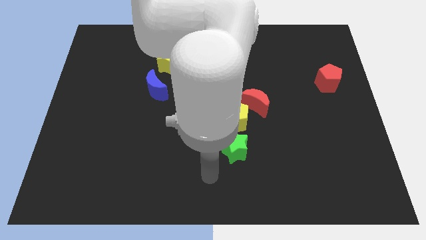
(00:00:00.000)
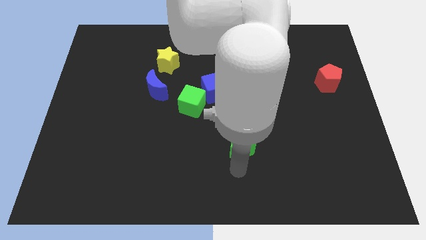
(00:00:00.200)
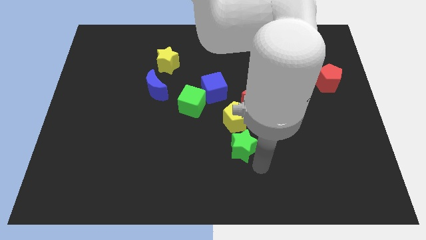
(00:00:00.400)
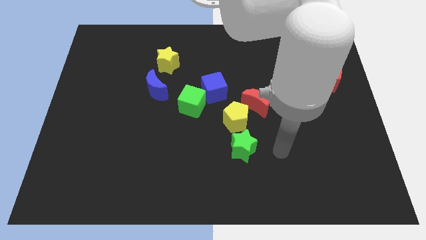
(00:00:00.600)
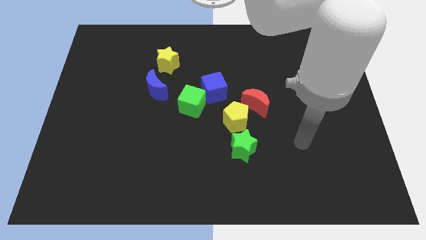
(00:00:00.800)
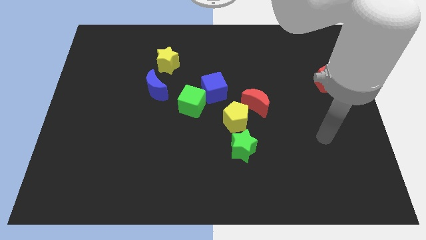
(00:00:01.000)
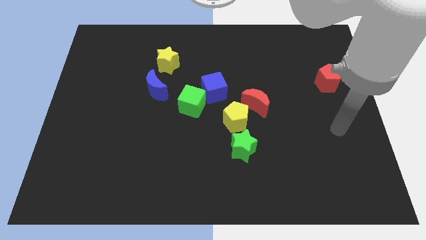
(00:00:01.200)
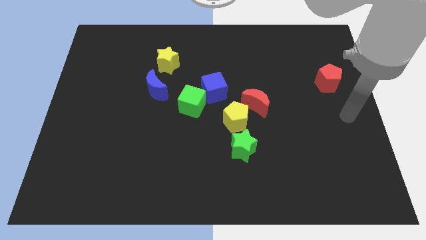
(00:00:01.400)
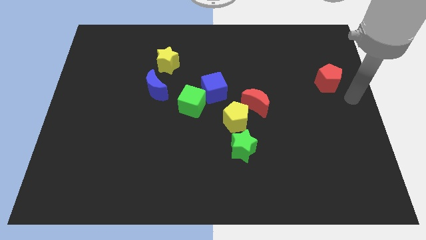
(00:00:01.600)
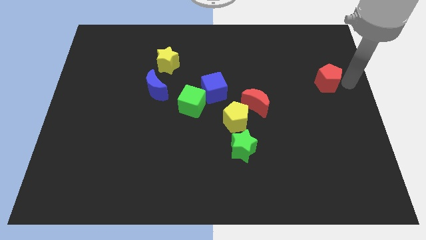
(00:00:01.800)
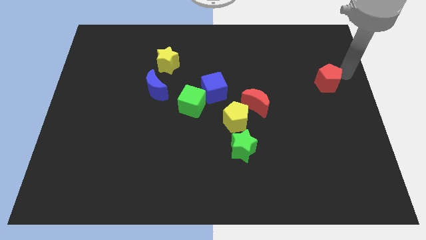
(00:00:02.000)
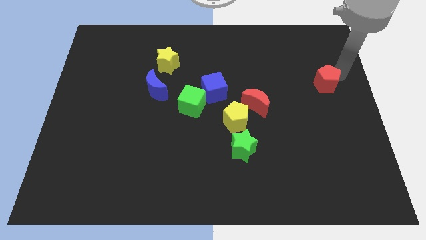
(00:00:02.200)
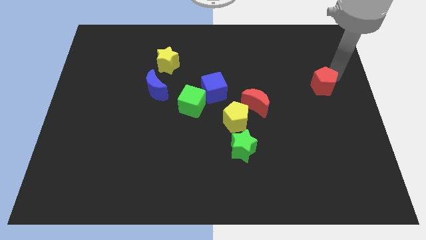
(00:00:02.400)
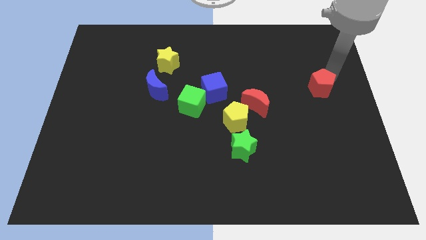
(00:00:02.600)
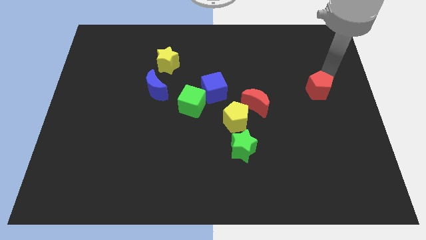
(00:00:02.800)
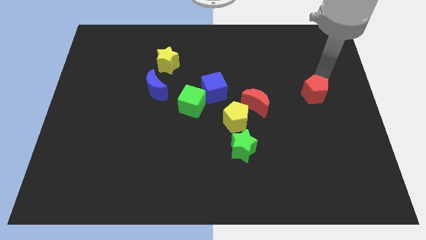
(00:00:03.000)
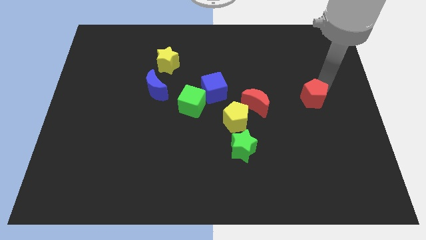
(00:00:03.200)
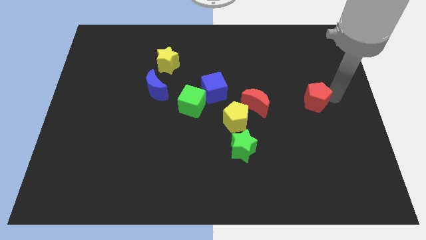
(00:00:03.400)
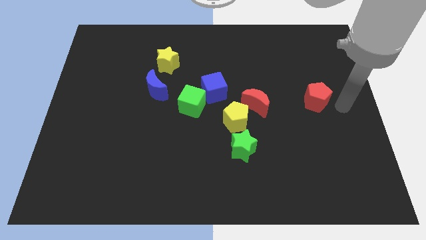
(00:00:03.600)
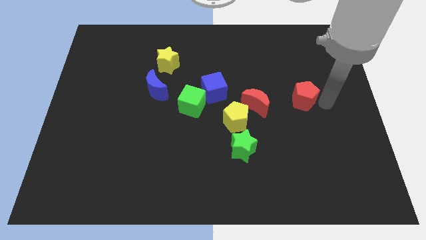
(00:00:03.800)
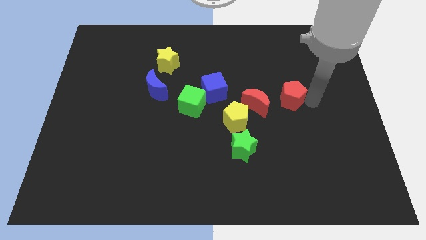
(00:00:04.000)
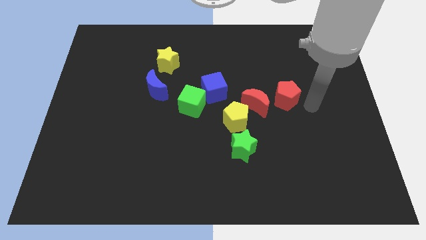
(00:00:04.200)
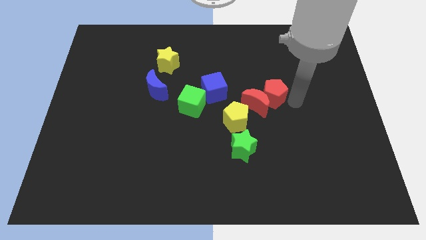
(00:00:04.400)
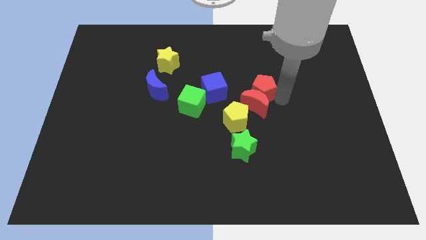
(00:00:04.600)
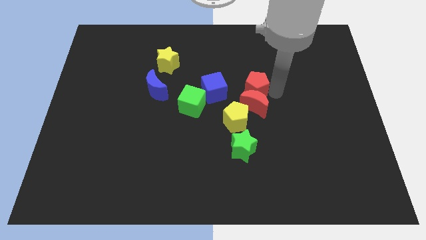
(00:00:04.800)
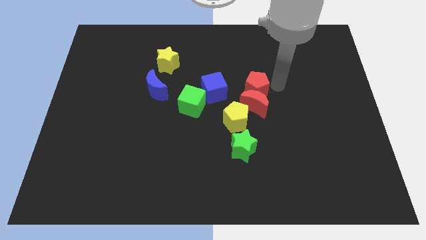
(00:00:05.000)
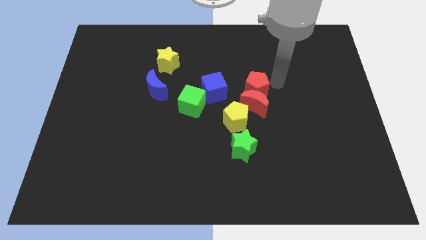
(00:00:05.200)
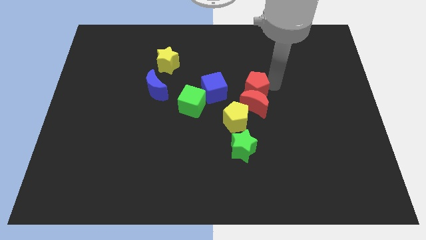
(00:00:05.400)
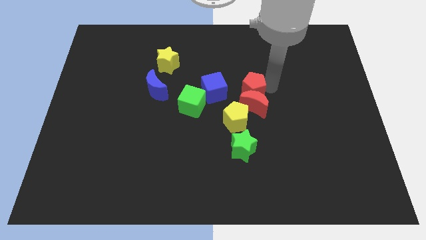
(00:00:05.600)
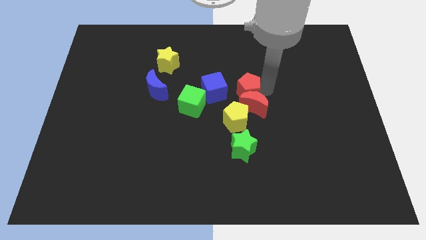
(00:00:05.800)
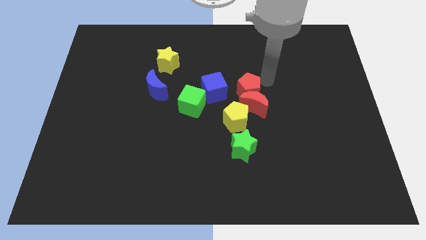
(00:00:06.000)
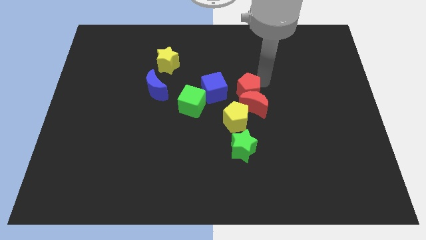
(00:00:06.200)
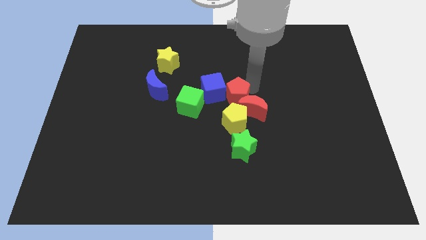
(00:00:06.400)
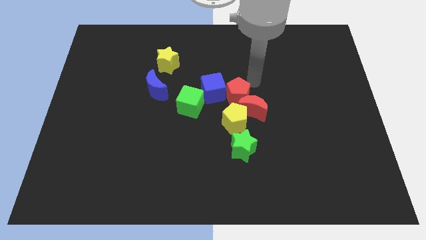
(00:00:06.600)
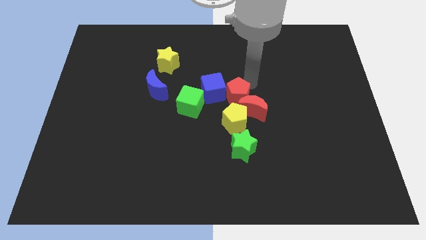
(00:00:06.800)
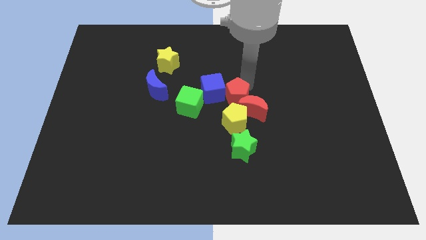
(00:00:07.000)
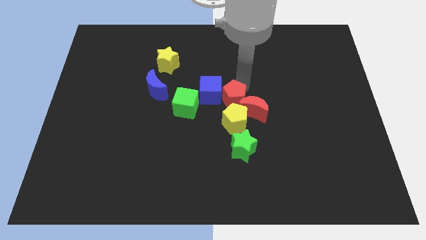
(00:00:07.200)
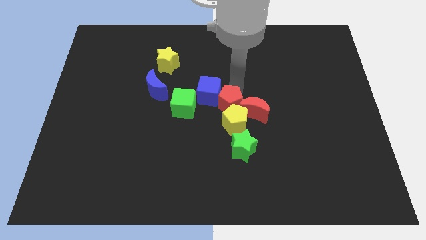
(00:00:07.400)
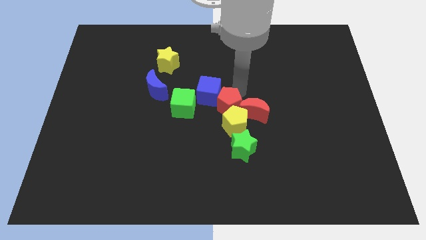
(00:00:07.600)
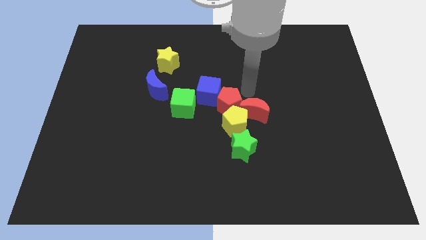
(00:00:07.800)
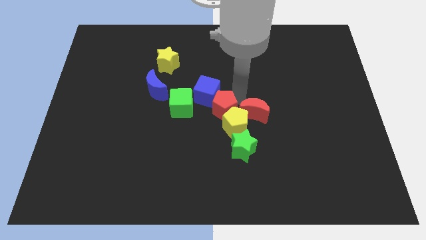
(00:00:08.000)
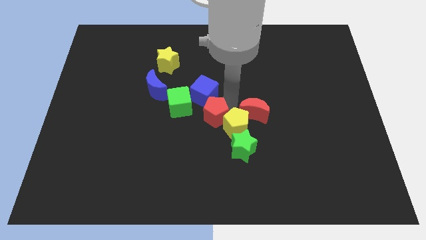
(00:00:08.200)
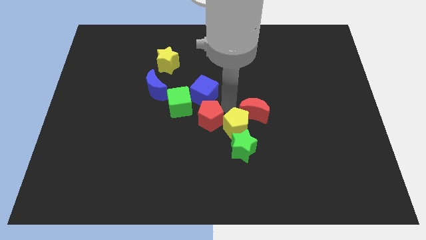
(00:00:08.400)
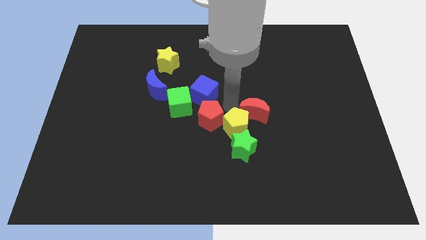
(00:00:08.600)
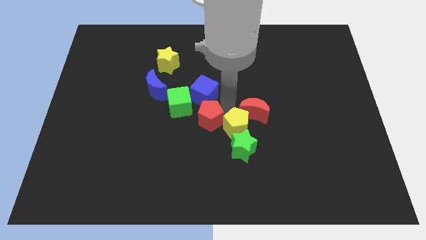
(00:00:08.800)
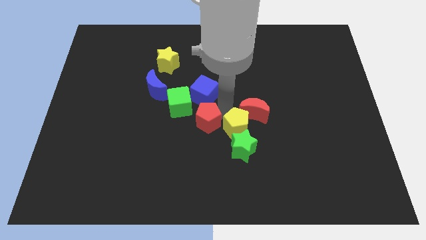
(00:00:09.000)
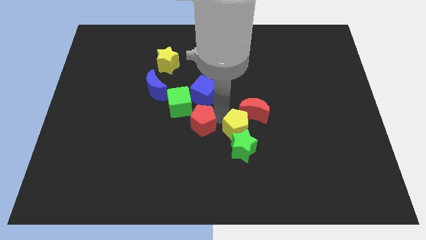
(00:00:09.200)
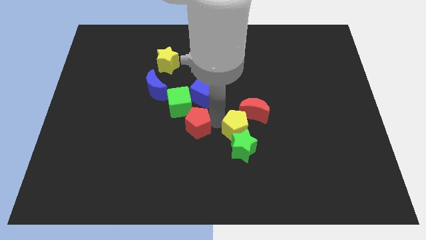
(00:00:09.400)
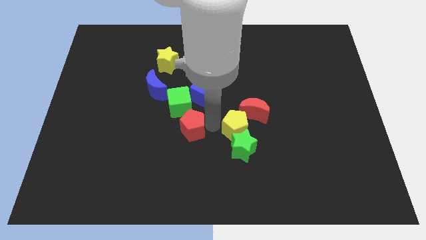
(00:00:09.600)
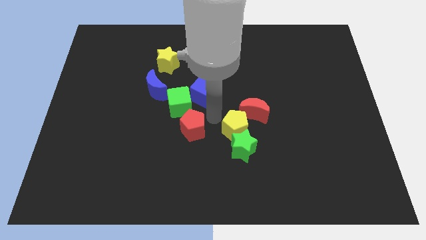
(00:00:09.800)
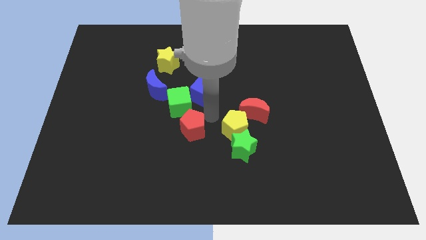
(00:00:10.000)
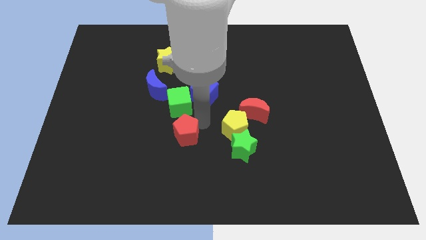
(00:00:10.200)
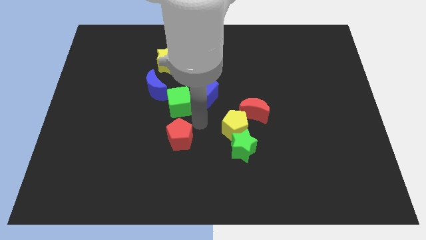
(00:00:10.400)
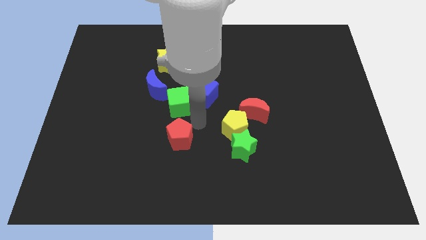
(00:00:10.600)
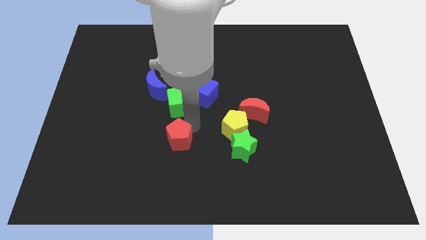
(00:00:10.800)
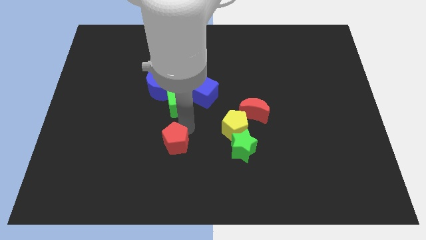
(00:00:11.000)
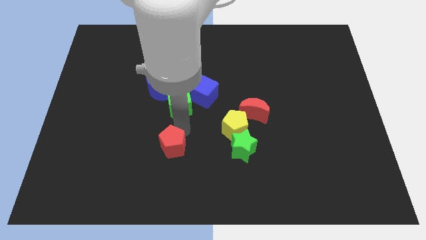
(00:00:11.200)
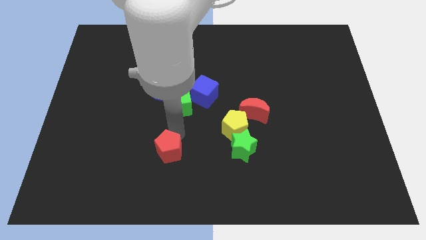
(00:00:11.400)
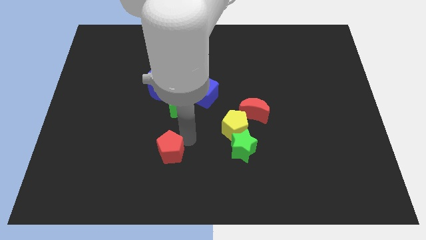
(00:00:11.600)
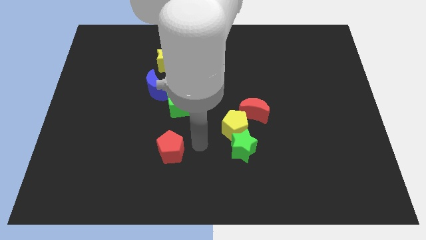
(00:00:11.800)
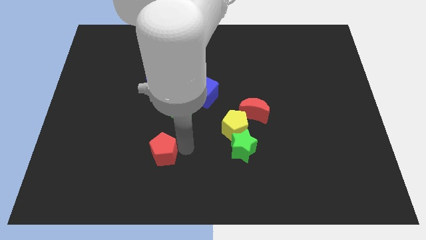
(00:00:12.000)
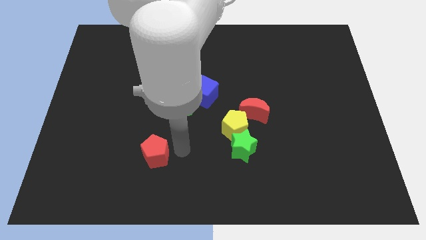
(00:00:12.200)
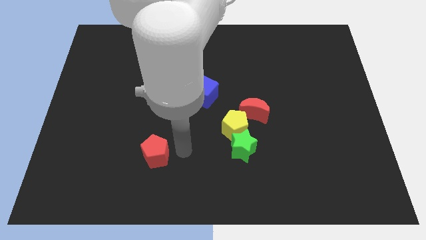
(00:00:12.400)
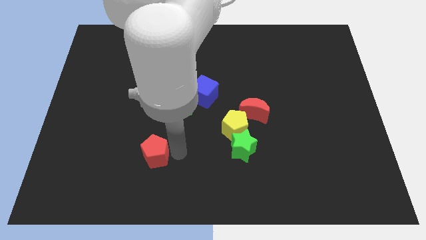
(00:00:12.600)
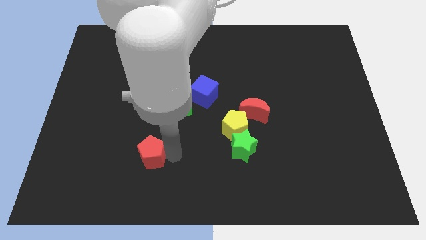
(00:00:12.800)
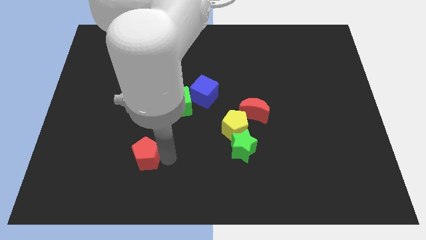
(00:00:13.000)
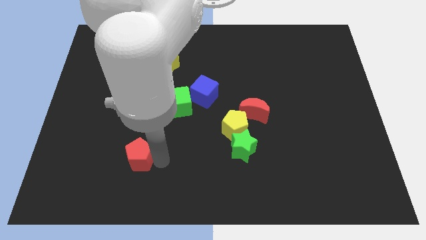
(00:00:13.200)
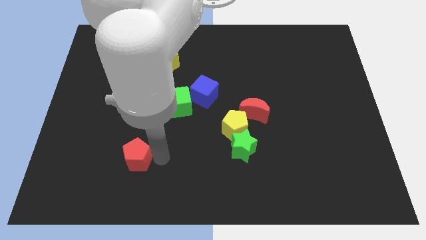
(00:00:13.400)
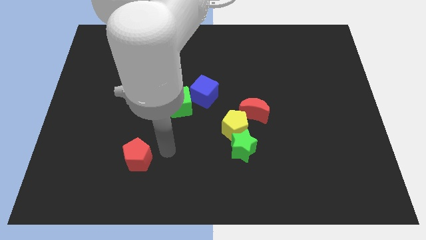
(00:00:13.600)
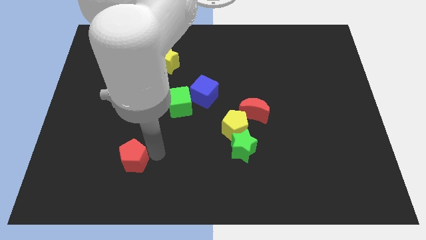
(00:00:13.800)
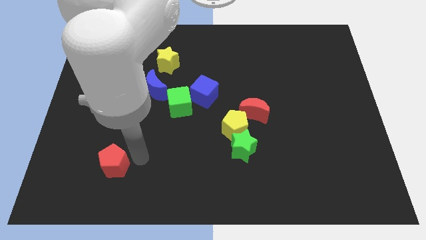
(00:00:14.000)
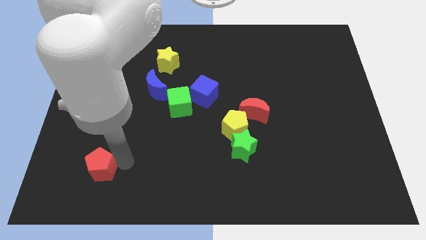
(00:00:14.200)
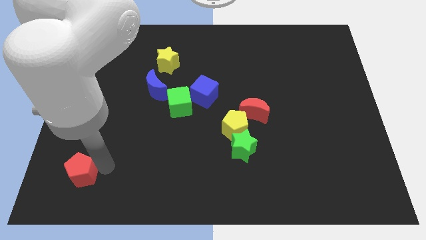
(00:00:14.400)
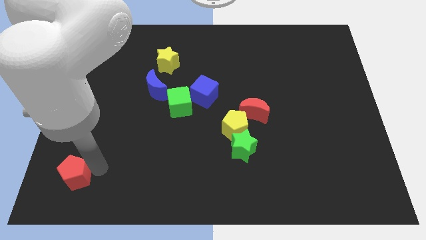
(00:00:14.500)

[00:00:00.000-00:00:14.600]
move the red pentagon to the bottom left
